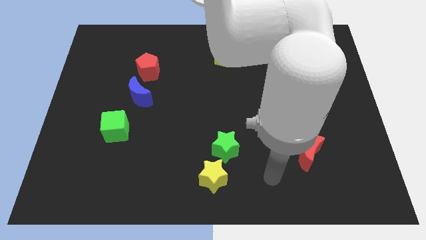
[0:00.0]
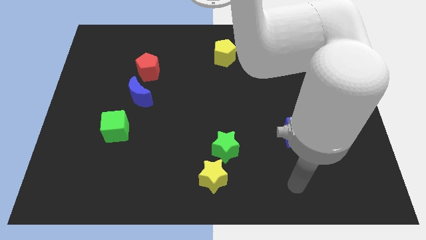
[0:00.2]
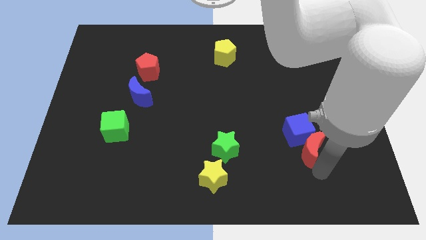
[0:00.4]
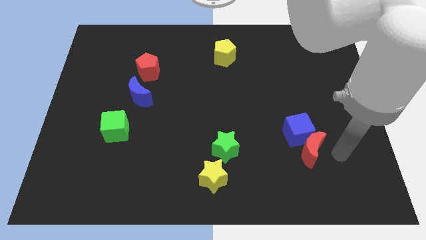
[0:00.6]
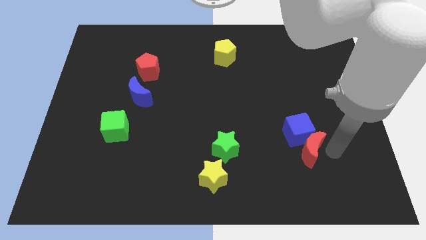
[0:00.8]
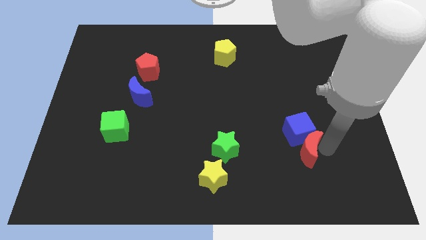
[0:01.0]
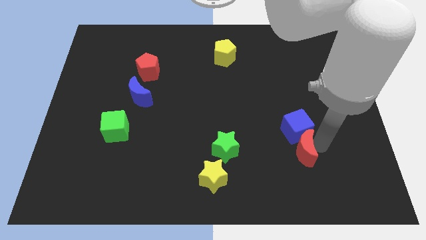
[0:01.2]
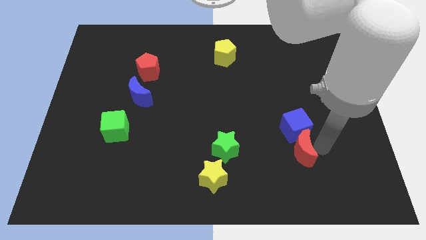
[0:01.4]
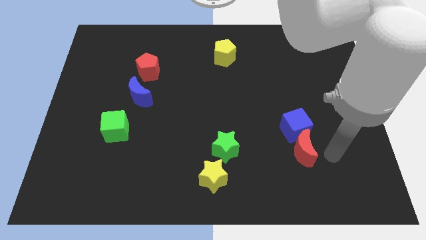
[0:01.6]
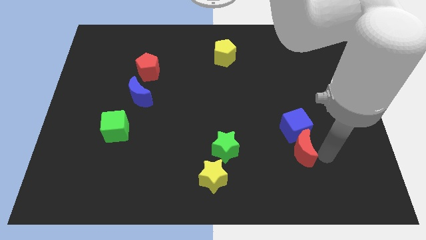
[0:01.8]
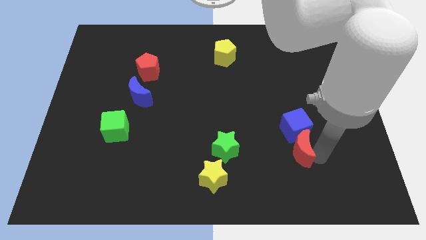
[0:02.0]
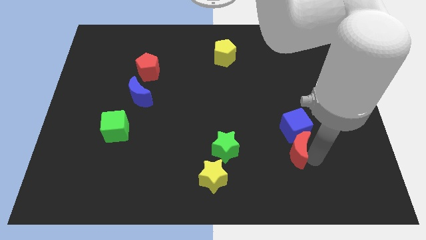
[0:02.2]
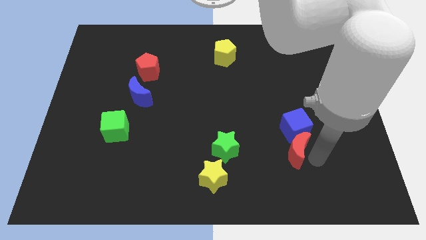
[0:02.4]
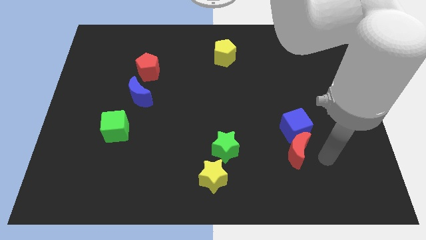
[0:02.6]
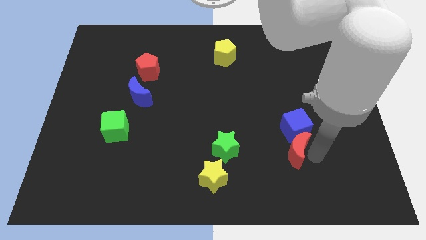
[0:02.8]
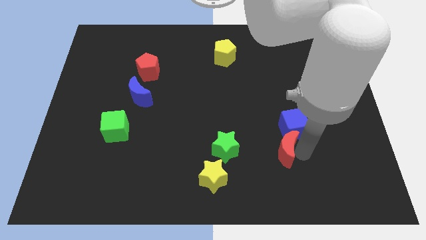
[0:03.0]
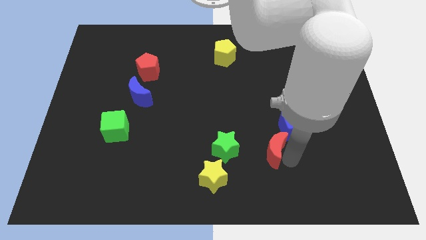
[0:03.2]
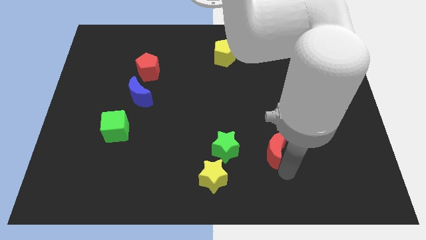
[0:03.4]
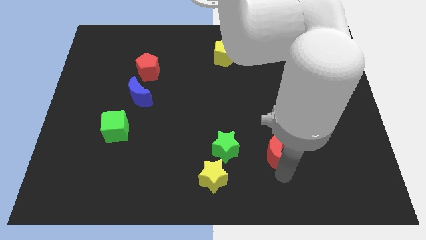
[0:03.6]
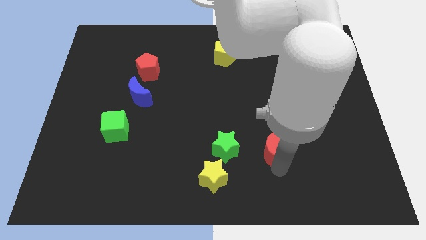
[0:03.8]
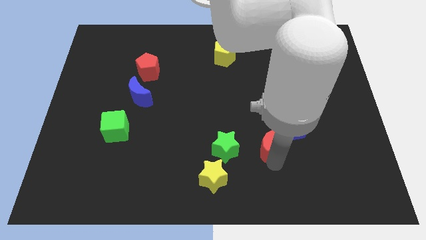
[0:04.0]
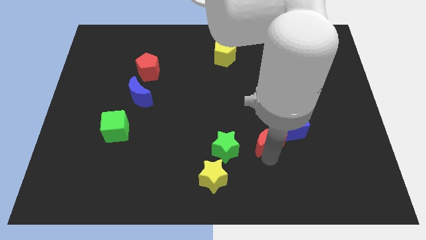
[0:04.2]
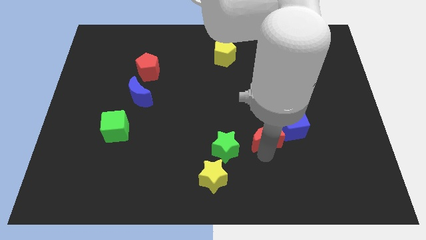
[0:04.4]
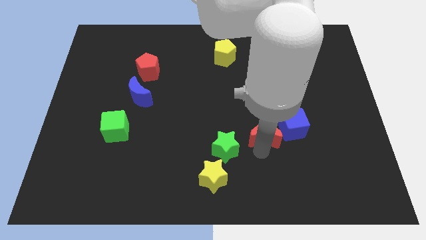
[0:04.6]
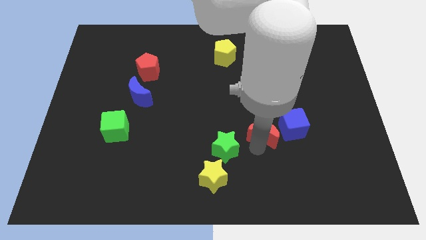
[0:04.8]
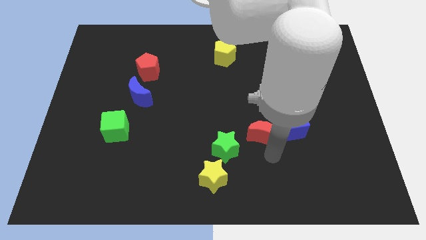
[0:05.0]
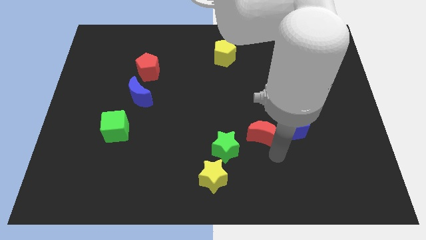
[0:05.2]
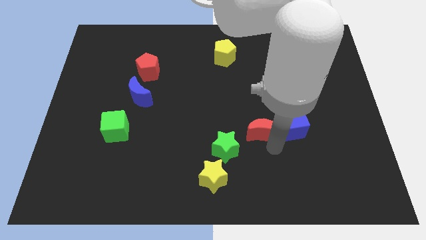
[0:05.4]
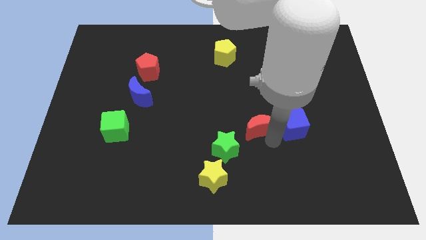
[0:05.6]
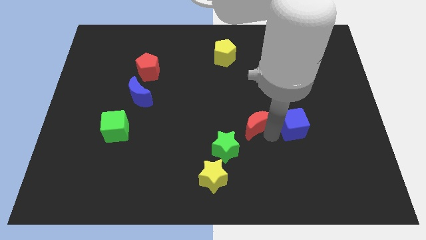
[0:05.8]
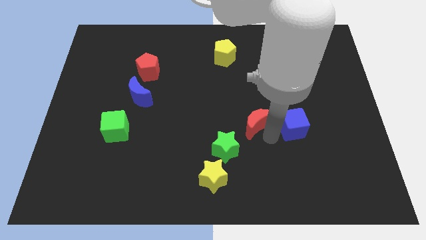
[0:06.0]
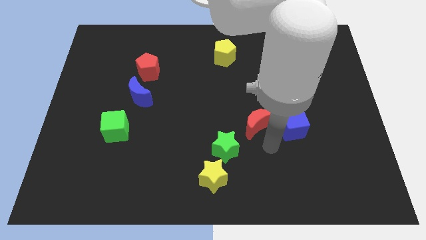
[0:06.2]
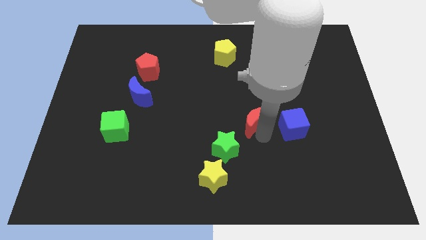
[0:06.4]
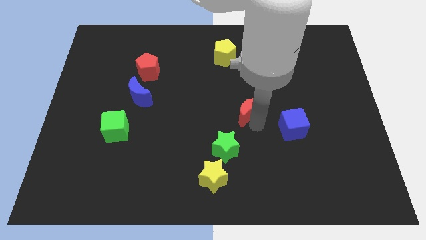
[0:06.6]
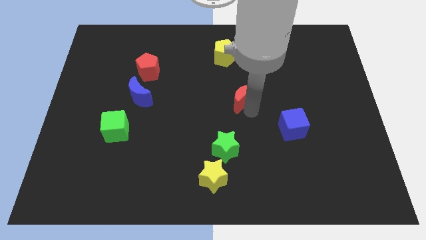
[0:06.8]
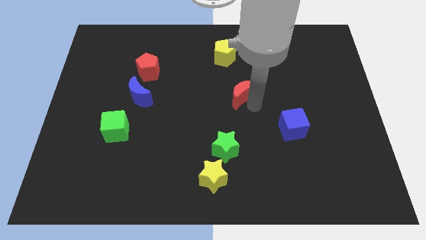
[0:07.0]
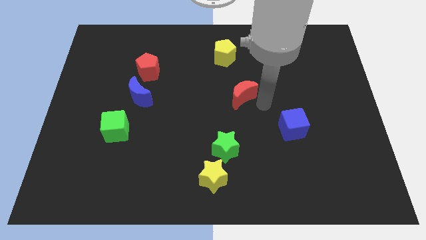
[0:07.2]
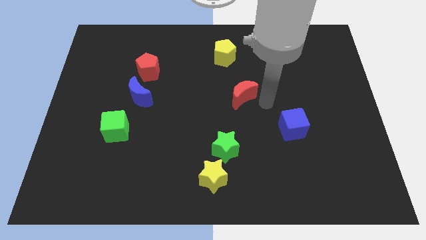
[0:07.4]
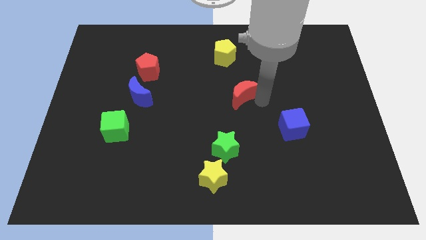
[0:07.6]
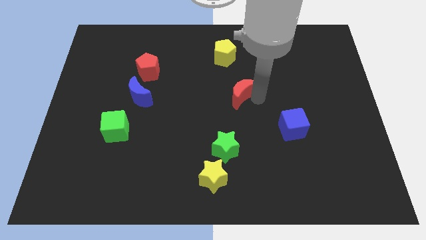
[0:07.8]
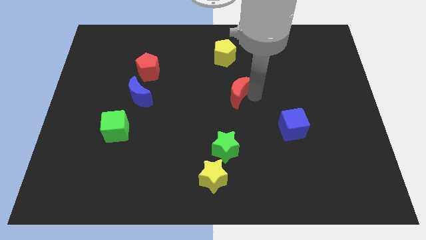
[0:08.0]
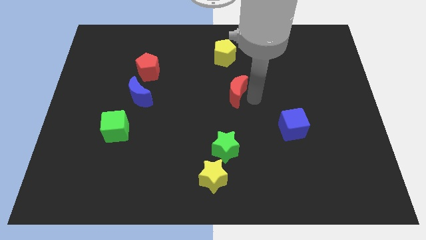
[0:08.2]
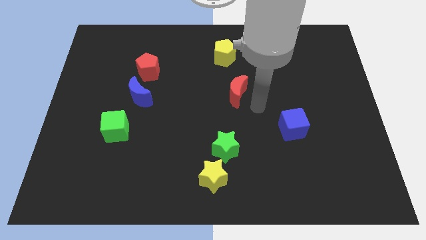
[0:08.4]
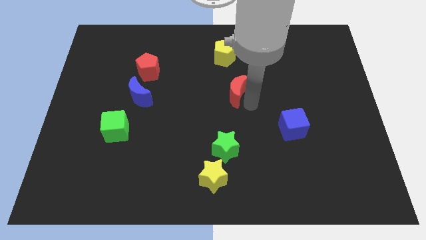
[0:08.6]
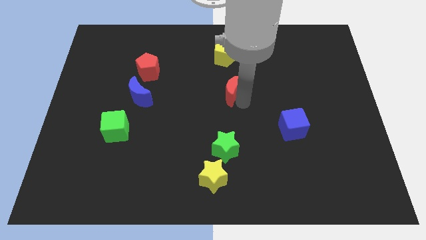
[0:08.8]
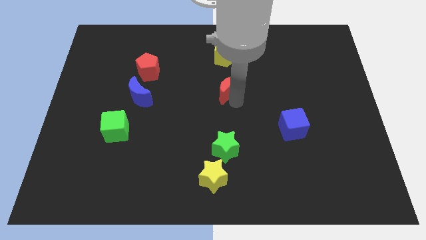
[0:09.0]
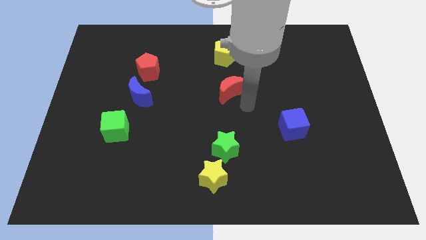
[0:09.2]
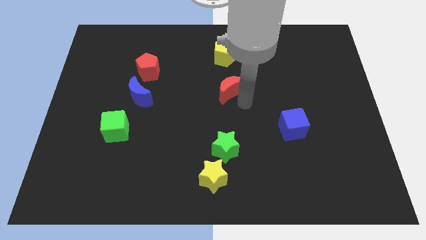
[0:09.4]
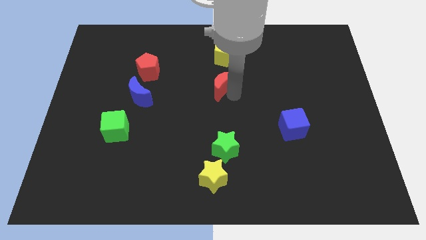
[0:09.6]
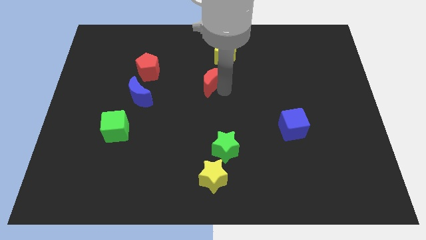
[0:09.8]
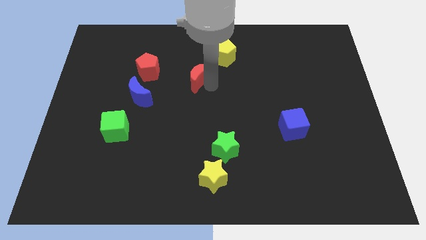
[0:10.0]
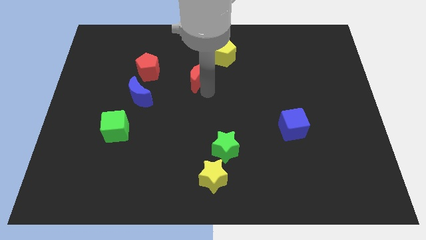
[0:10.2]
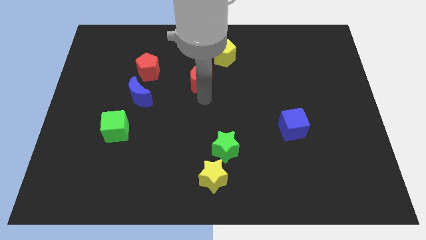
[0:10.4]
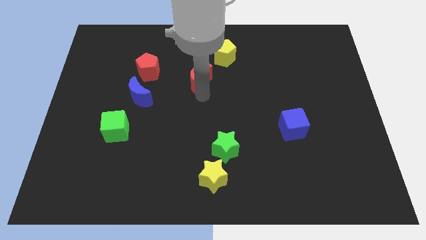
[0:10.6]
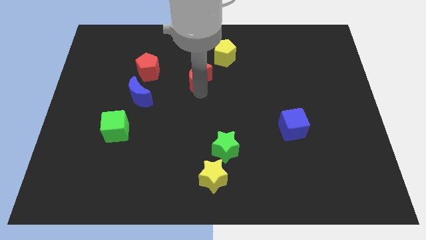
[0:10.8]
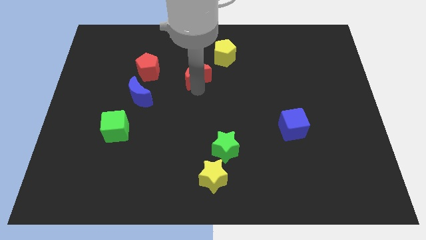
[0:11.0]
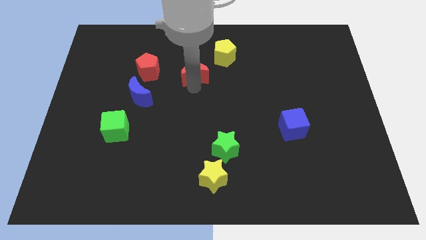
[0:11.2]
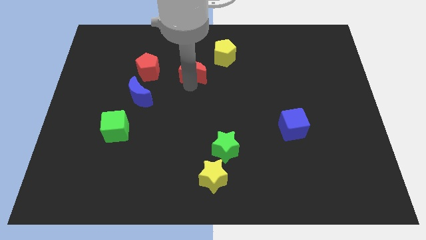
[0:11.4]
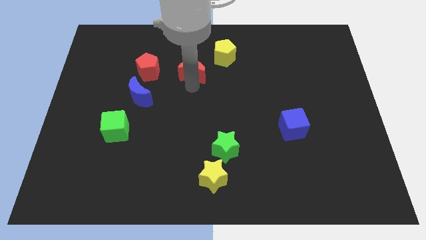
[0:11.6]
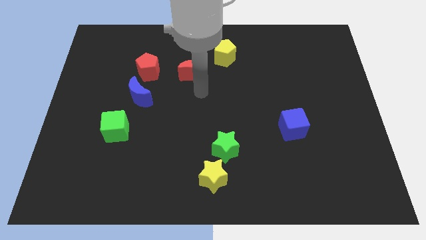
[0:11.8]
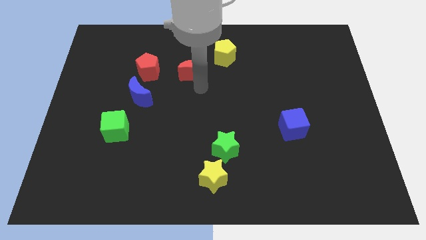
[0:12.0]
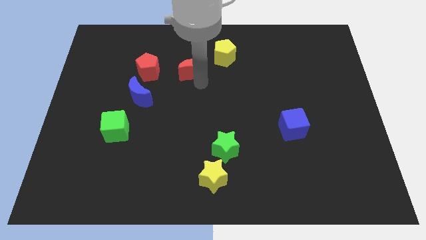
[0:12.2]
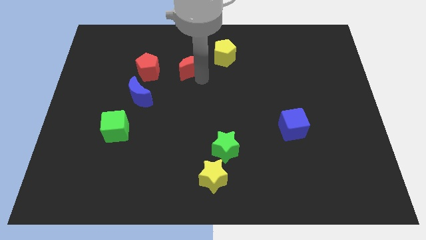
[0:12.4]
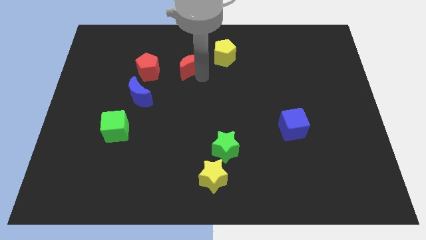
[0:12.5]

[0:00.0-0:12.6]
slide the red moon just left of the yellow pentagon
